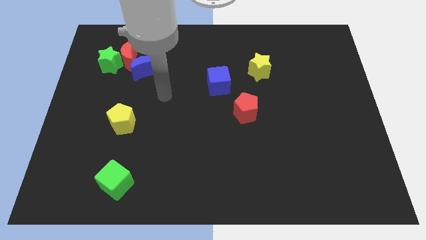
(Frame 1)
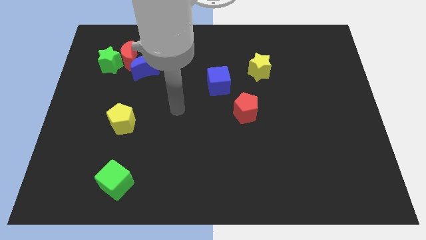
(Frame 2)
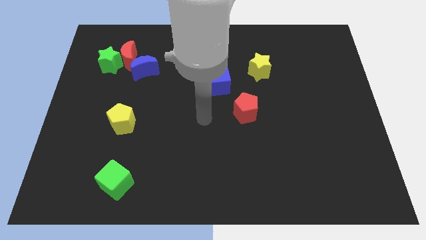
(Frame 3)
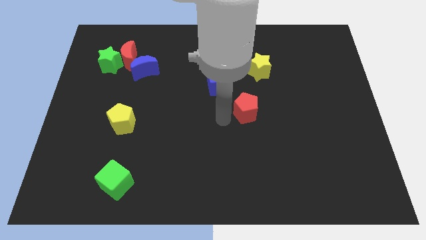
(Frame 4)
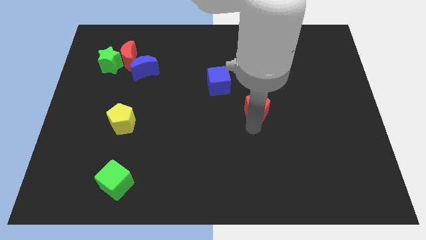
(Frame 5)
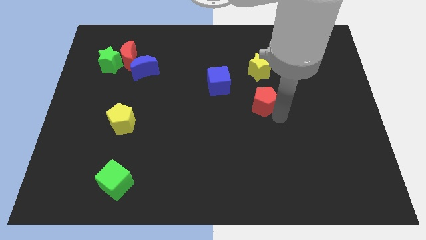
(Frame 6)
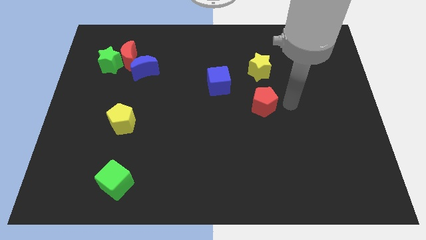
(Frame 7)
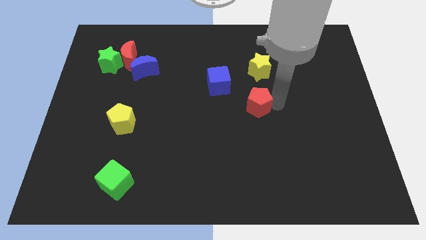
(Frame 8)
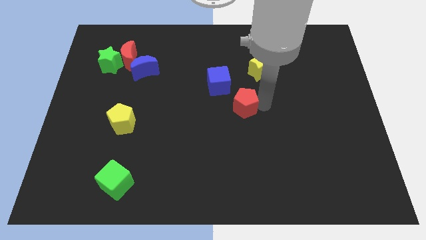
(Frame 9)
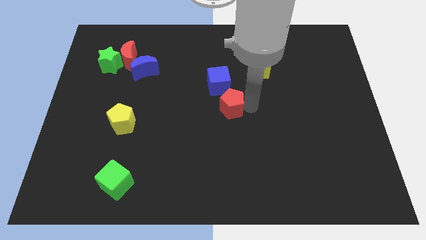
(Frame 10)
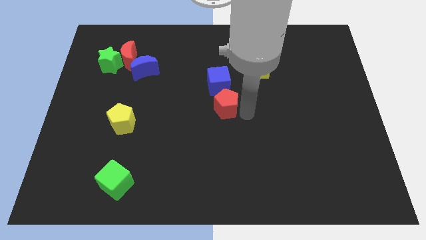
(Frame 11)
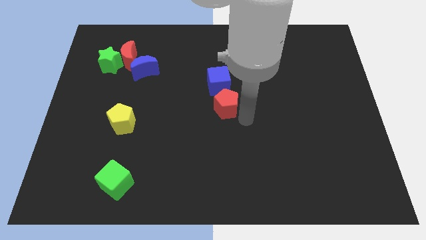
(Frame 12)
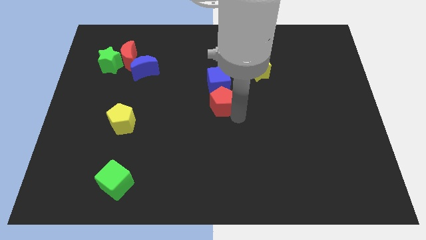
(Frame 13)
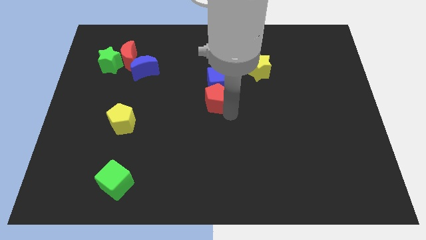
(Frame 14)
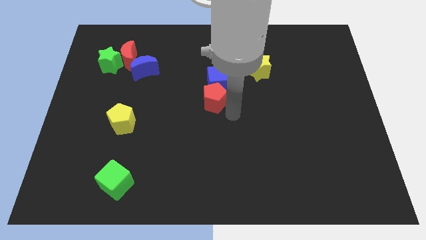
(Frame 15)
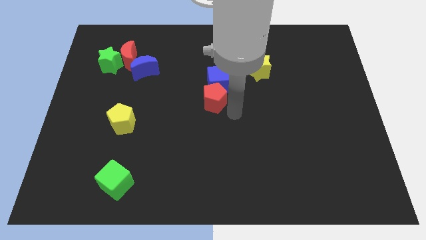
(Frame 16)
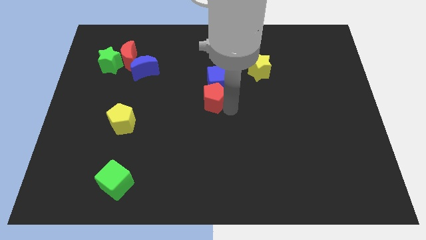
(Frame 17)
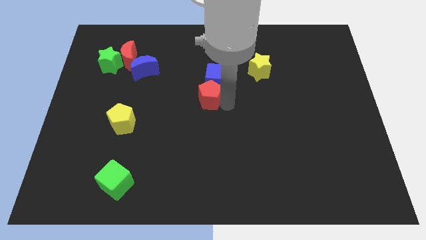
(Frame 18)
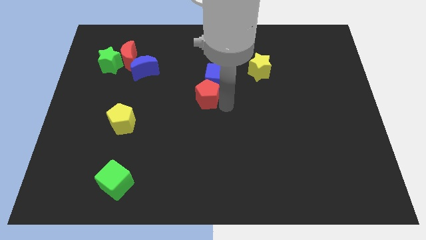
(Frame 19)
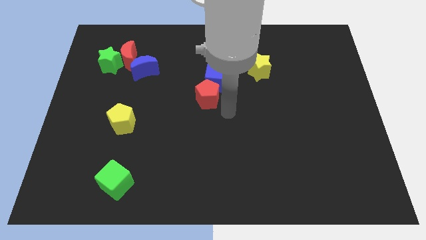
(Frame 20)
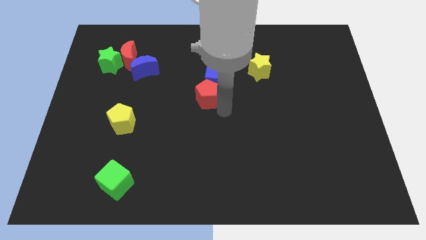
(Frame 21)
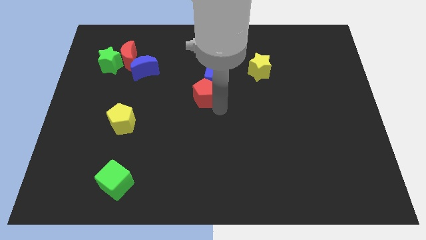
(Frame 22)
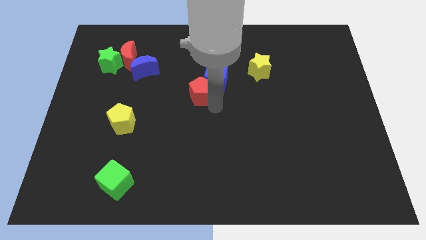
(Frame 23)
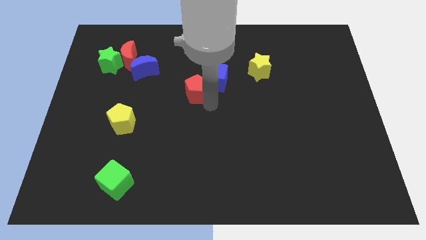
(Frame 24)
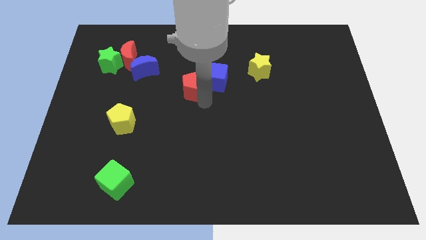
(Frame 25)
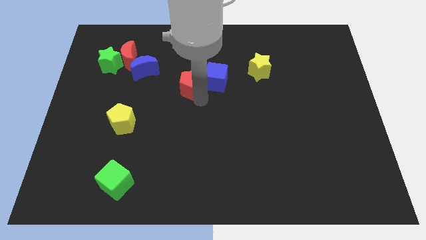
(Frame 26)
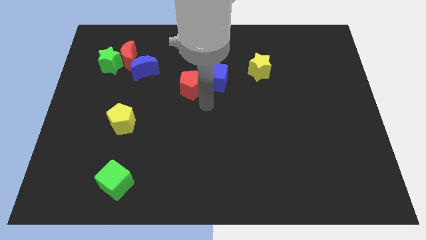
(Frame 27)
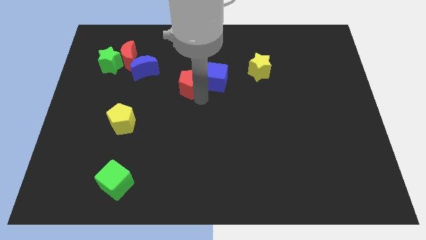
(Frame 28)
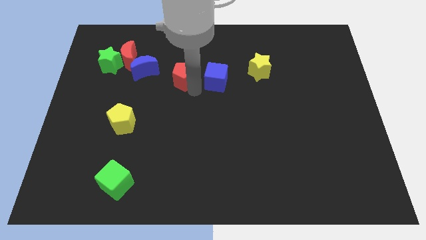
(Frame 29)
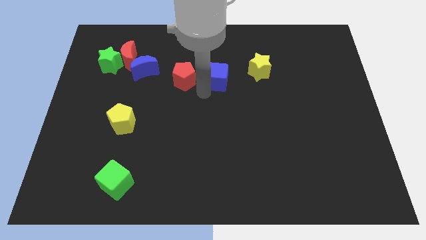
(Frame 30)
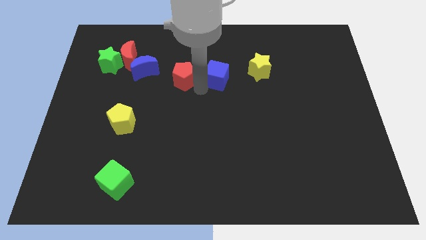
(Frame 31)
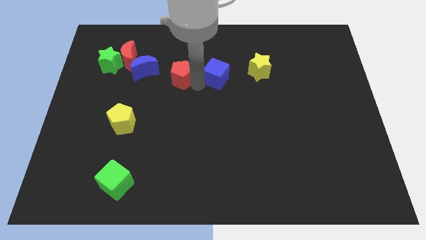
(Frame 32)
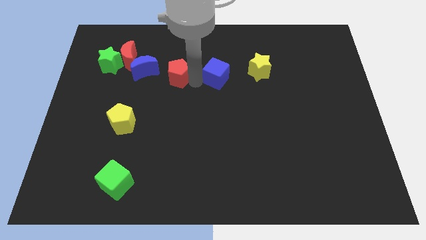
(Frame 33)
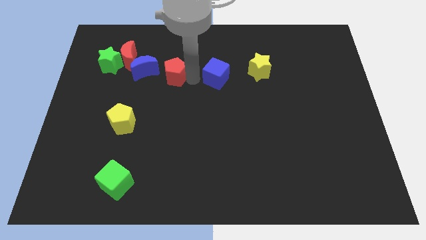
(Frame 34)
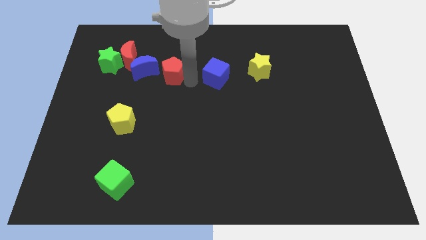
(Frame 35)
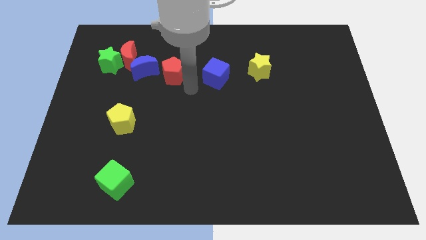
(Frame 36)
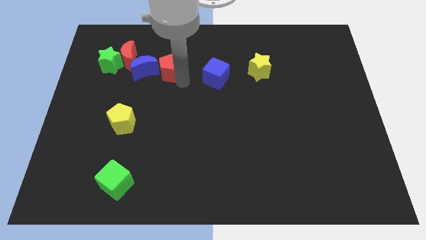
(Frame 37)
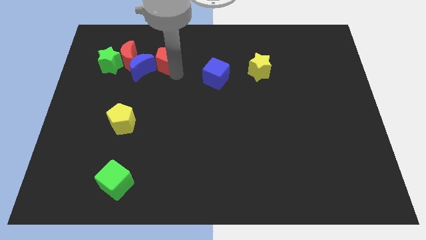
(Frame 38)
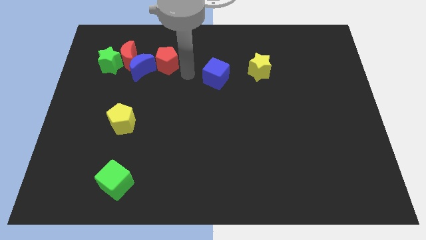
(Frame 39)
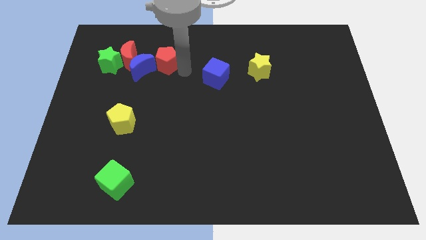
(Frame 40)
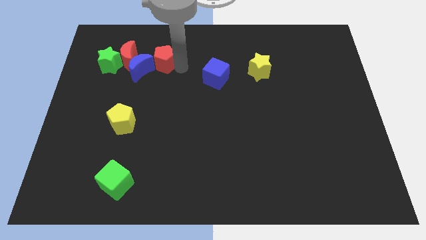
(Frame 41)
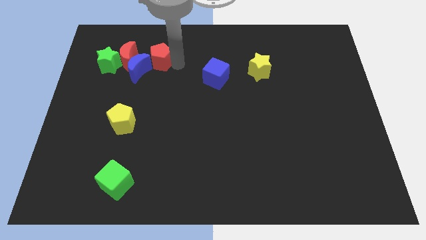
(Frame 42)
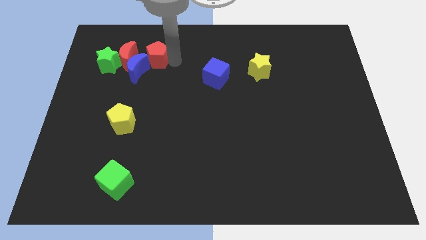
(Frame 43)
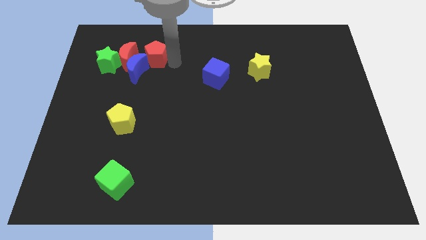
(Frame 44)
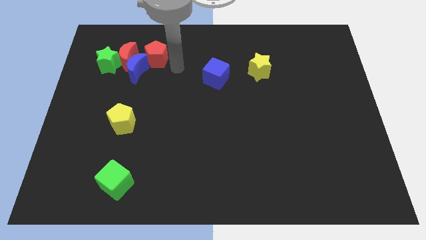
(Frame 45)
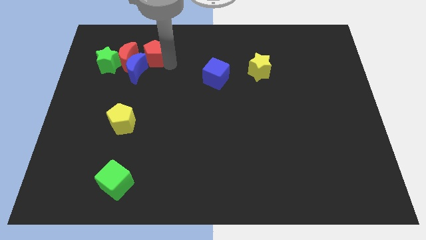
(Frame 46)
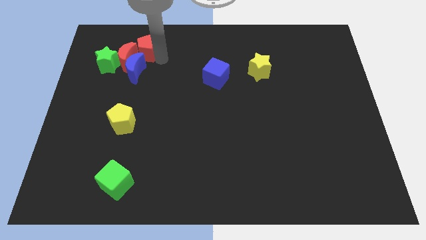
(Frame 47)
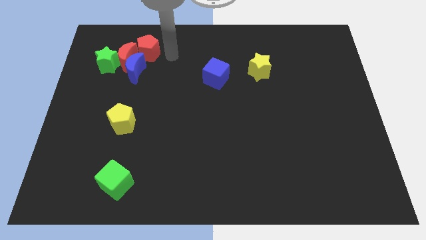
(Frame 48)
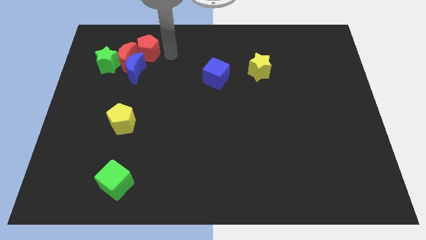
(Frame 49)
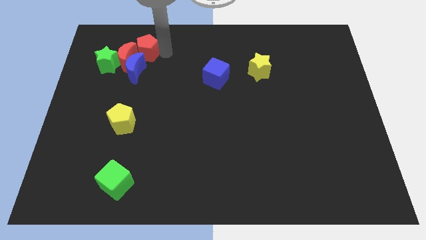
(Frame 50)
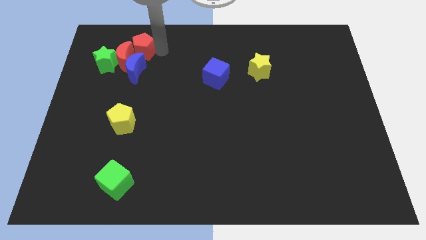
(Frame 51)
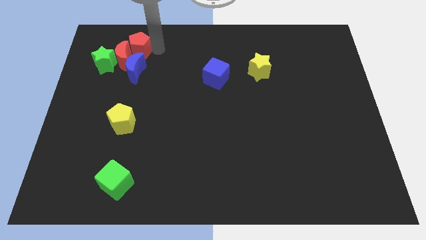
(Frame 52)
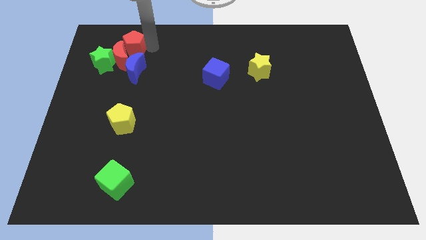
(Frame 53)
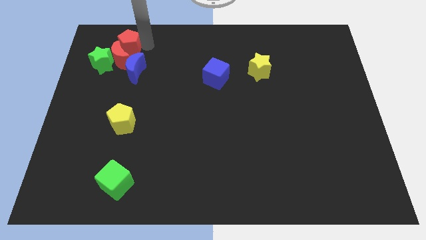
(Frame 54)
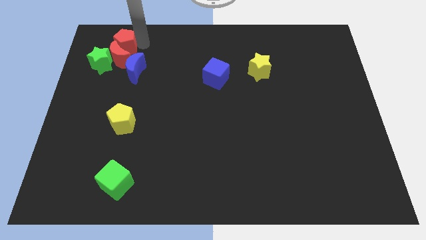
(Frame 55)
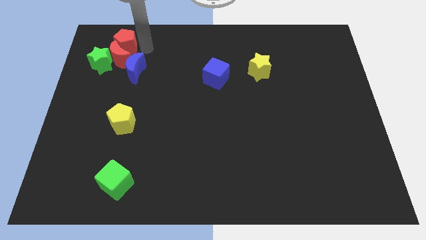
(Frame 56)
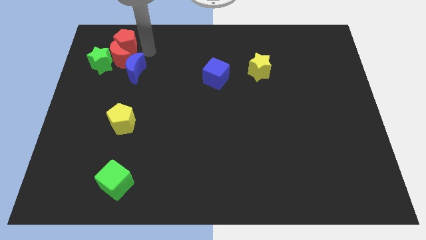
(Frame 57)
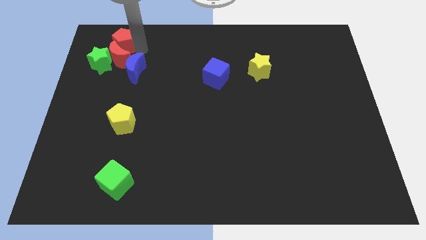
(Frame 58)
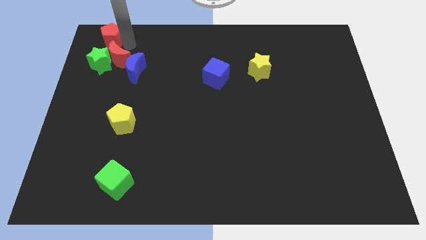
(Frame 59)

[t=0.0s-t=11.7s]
move the red pentagon to the top left of the board

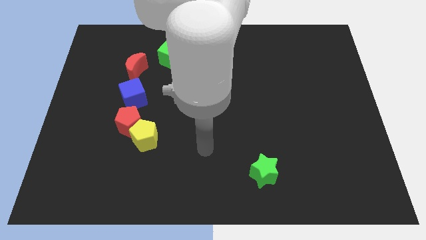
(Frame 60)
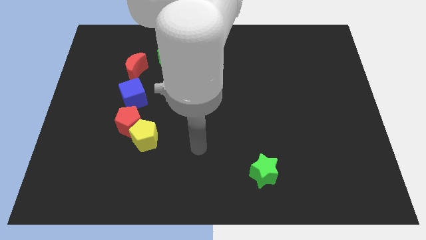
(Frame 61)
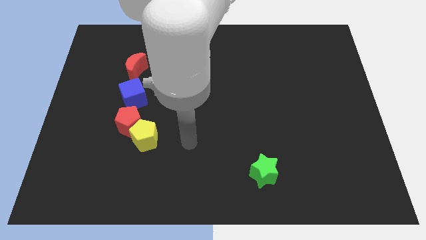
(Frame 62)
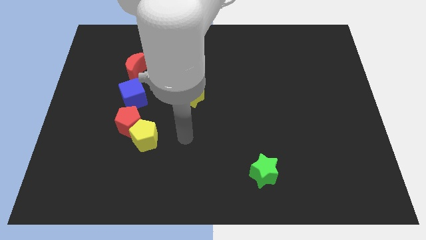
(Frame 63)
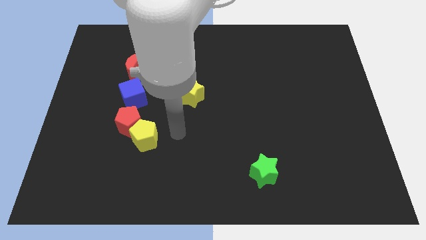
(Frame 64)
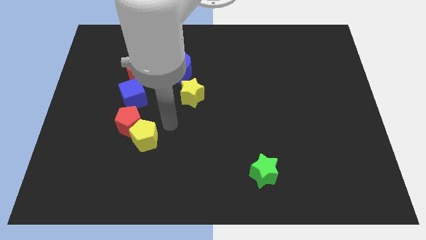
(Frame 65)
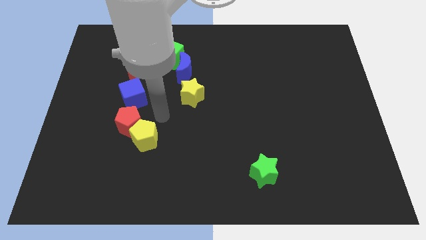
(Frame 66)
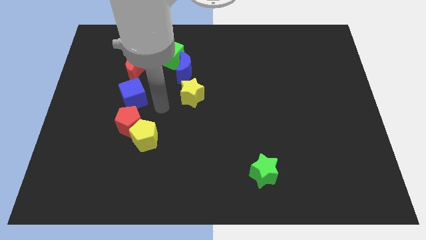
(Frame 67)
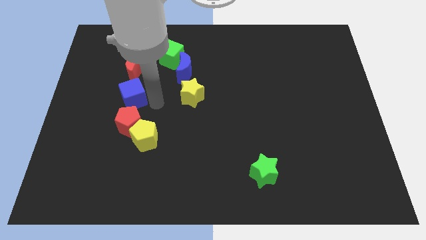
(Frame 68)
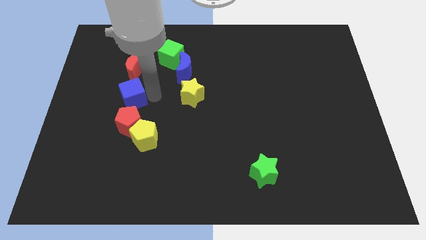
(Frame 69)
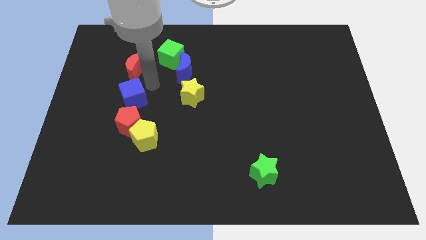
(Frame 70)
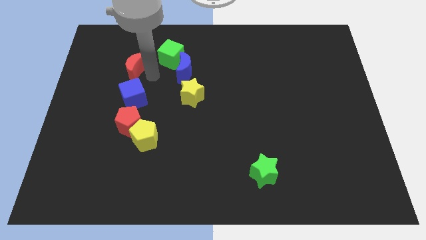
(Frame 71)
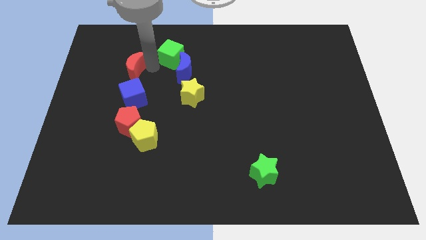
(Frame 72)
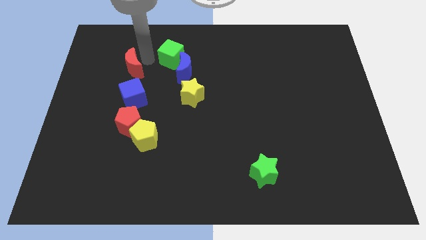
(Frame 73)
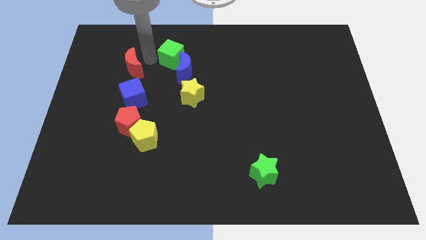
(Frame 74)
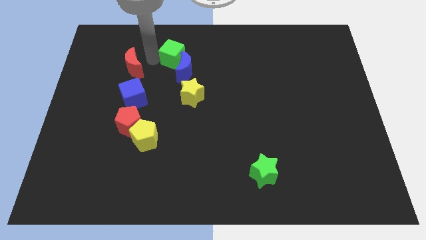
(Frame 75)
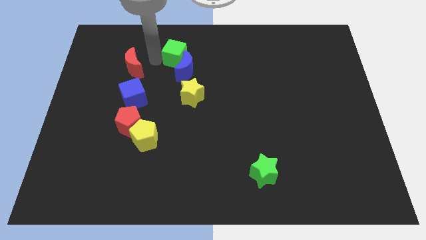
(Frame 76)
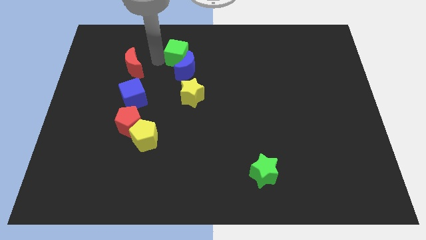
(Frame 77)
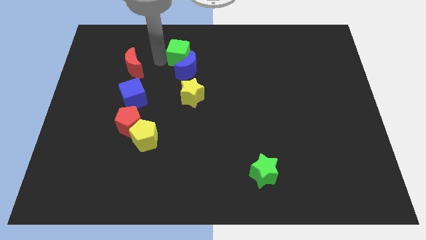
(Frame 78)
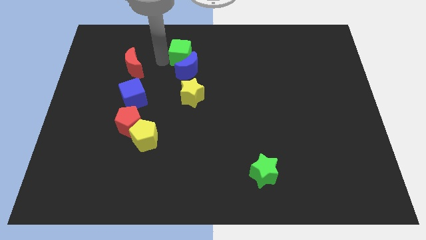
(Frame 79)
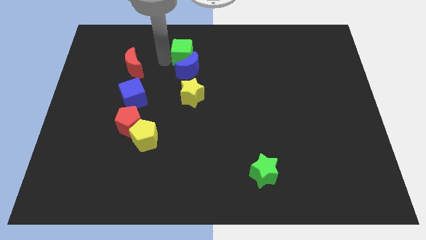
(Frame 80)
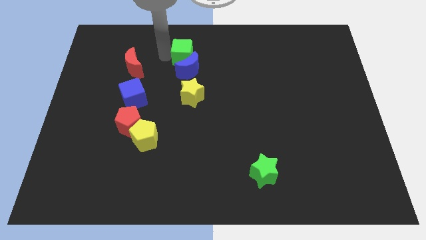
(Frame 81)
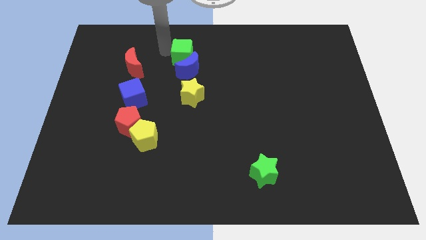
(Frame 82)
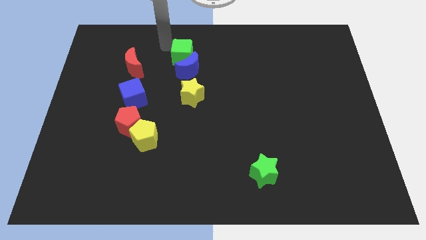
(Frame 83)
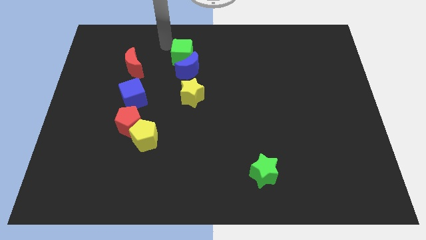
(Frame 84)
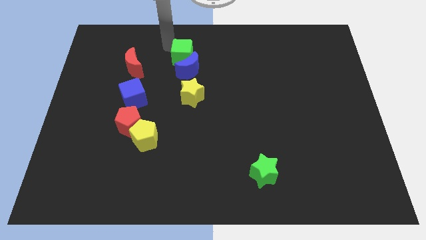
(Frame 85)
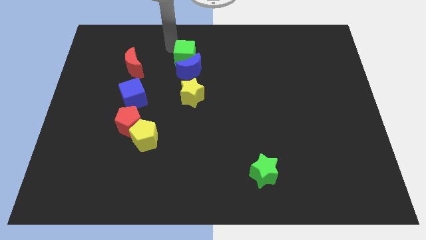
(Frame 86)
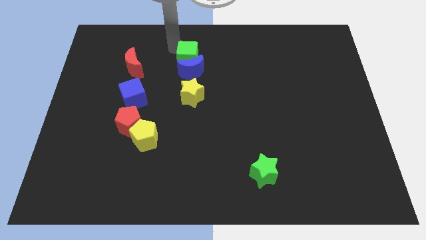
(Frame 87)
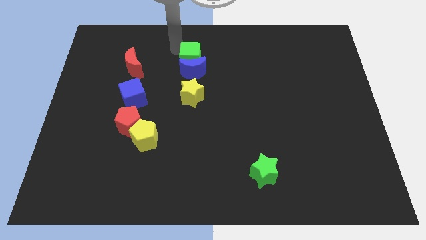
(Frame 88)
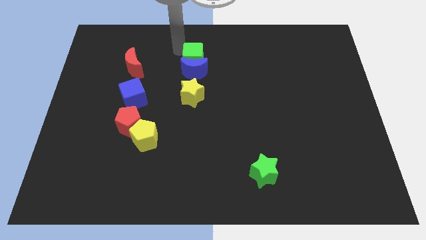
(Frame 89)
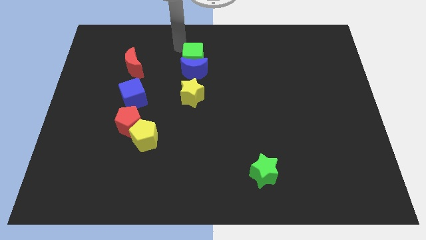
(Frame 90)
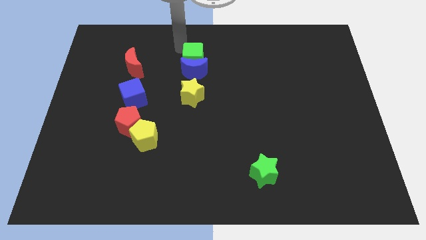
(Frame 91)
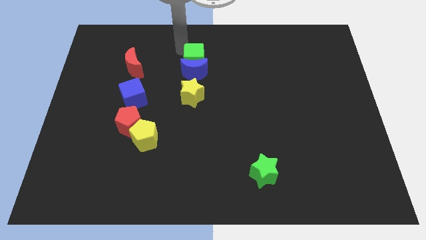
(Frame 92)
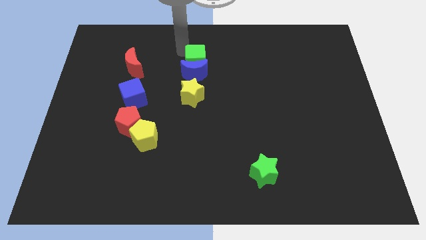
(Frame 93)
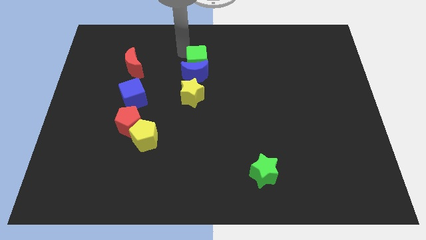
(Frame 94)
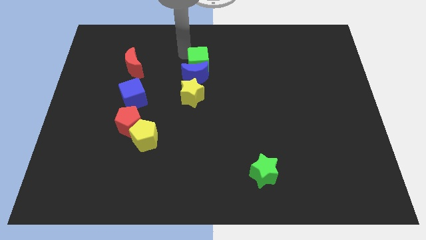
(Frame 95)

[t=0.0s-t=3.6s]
put the green cube to the center
